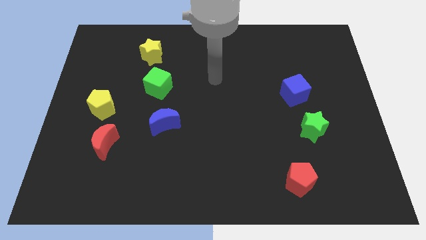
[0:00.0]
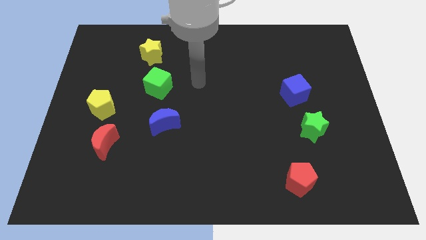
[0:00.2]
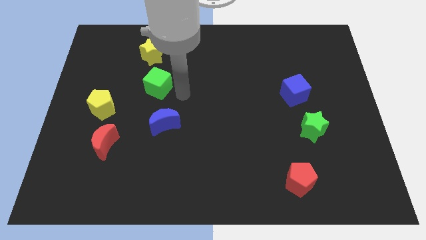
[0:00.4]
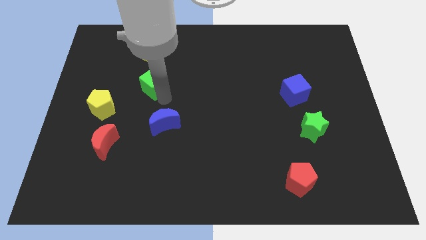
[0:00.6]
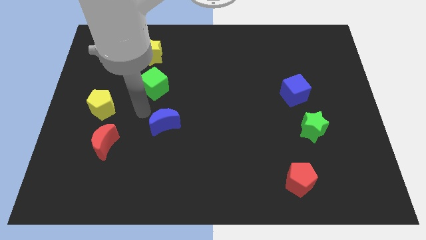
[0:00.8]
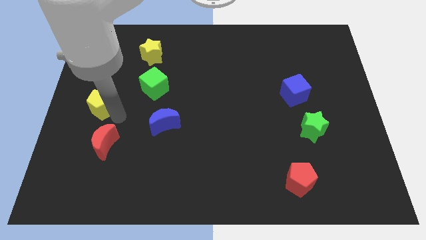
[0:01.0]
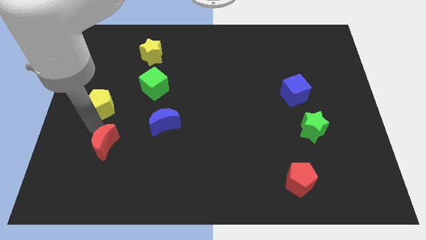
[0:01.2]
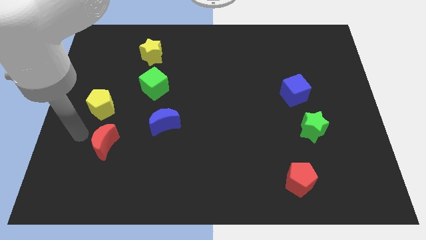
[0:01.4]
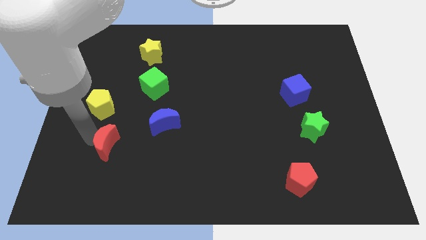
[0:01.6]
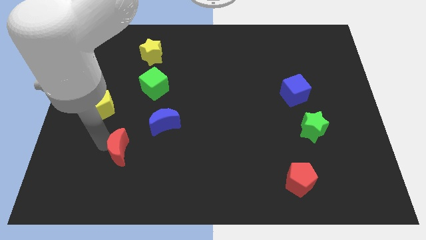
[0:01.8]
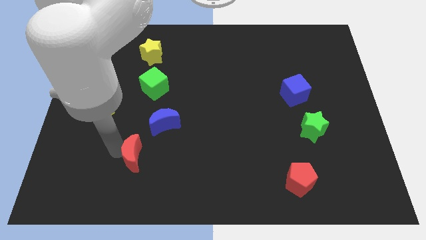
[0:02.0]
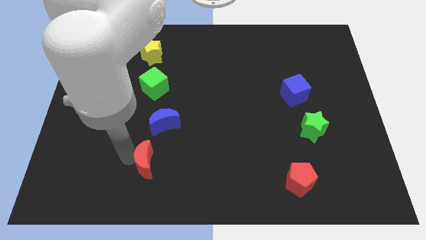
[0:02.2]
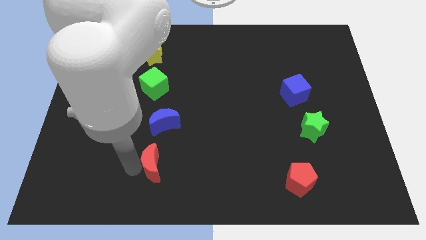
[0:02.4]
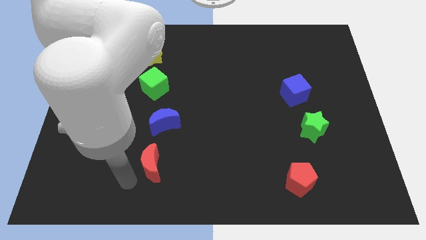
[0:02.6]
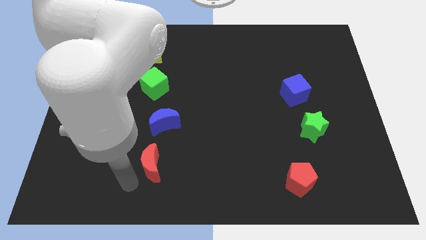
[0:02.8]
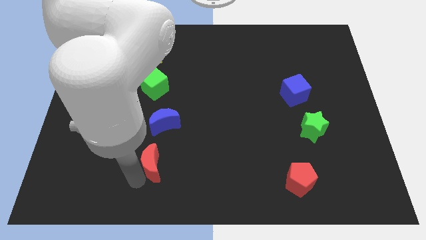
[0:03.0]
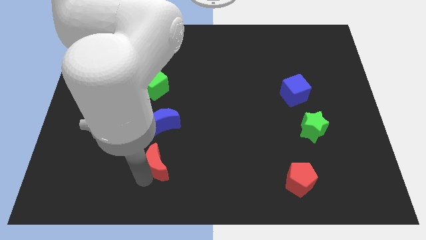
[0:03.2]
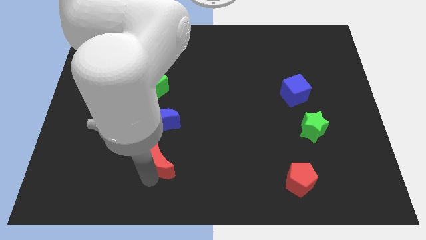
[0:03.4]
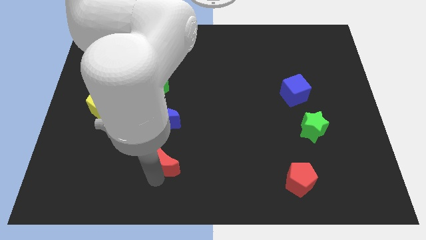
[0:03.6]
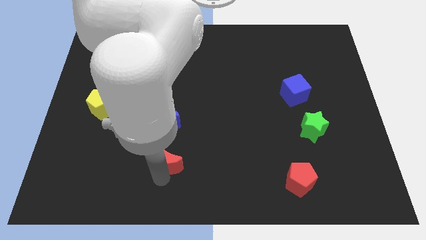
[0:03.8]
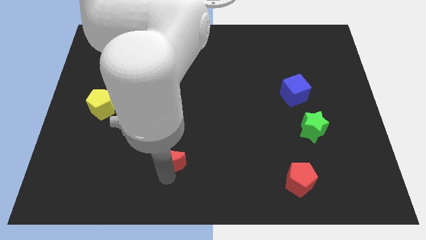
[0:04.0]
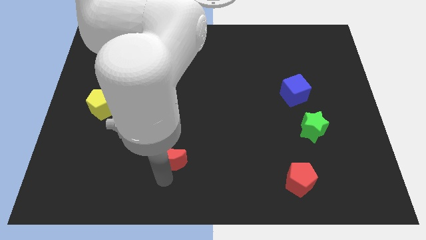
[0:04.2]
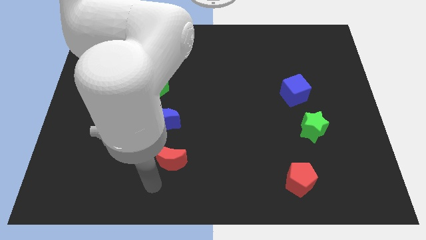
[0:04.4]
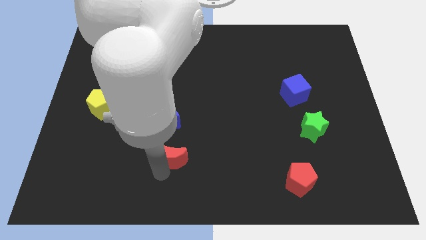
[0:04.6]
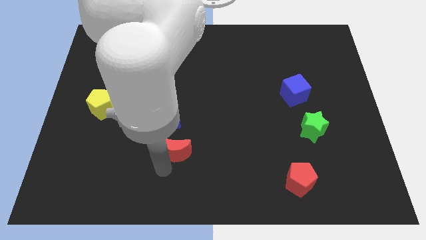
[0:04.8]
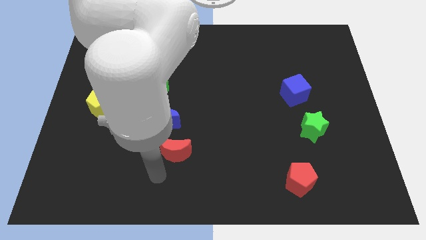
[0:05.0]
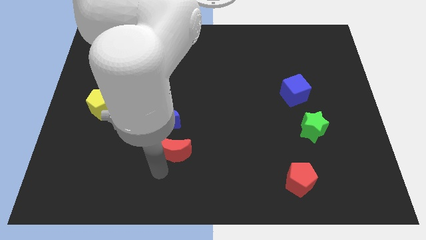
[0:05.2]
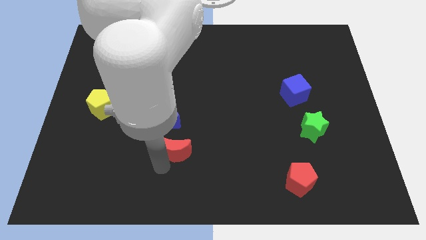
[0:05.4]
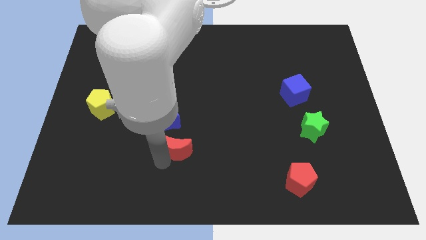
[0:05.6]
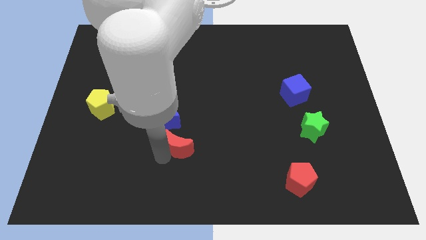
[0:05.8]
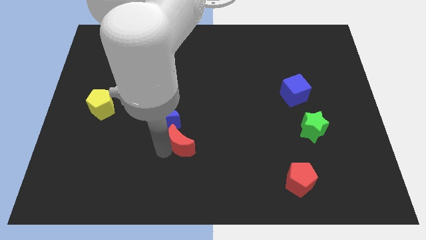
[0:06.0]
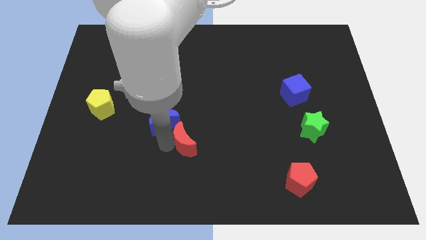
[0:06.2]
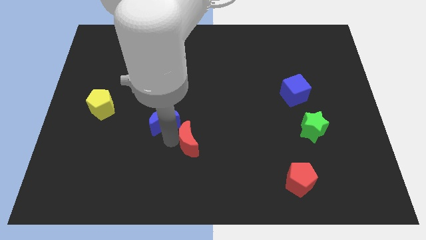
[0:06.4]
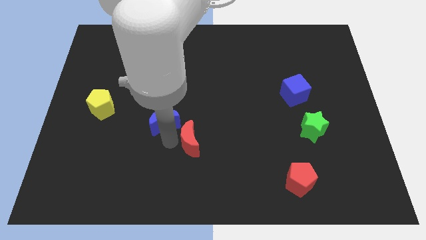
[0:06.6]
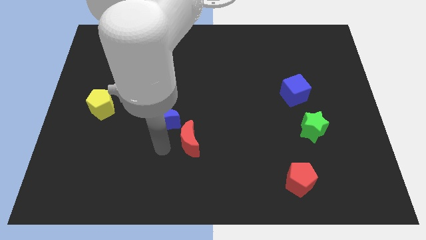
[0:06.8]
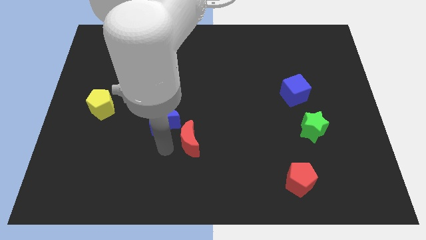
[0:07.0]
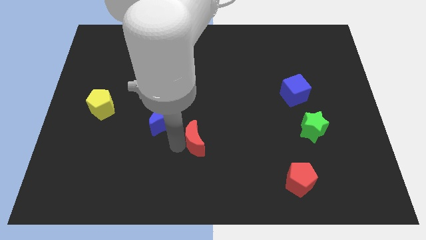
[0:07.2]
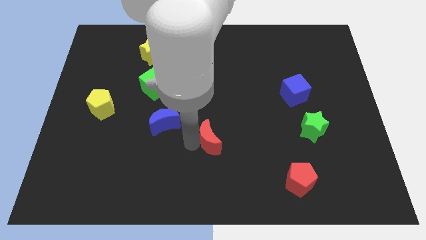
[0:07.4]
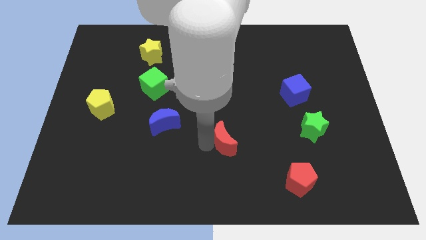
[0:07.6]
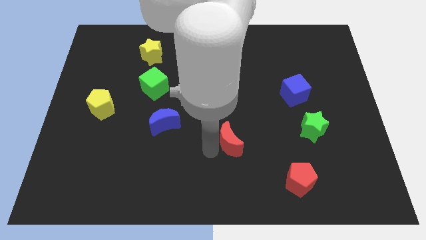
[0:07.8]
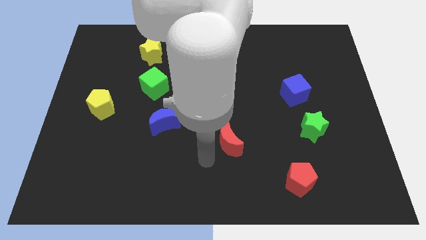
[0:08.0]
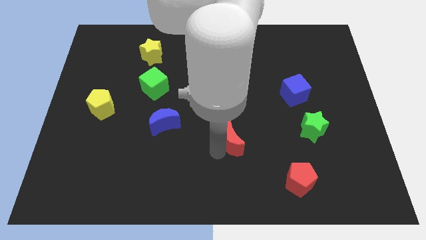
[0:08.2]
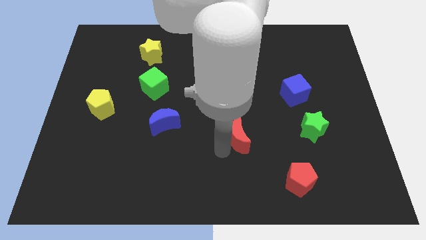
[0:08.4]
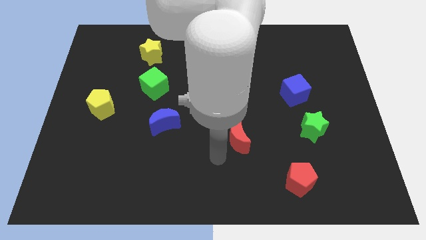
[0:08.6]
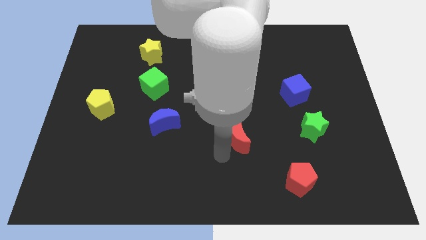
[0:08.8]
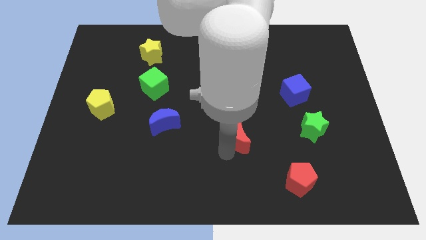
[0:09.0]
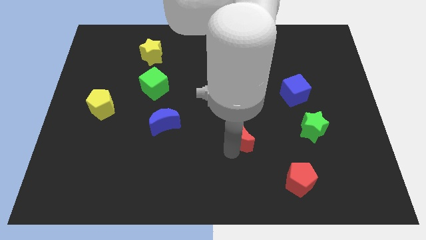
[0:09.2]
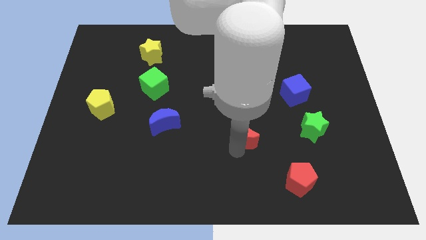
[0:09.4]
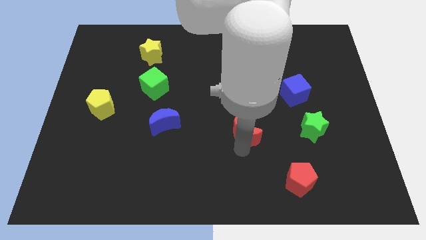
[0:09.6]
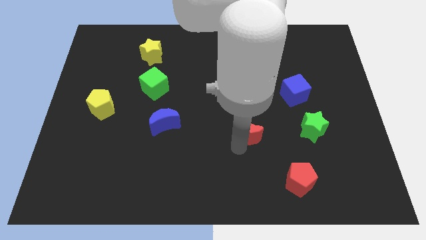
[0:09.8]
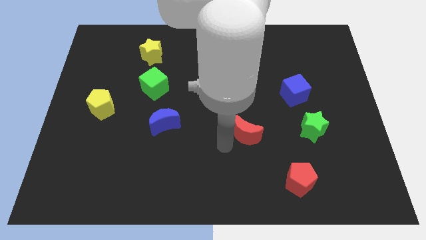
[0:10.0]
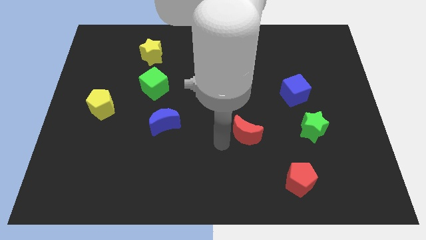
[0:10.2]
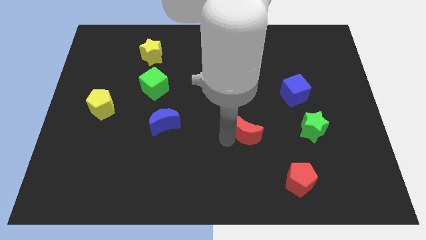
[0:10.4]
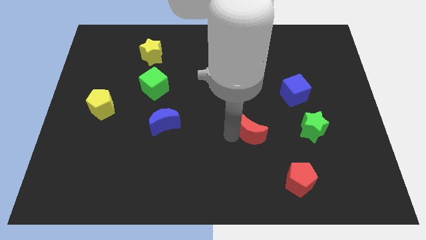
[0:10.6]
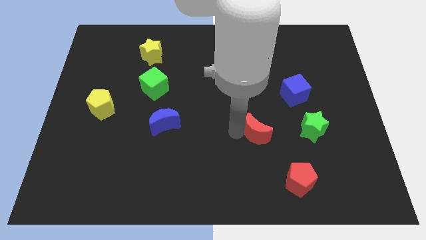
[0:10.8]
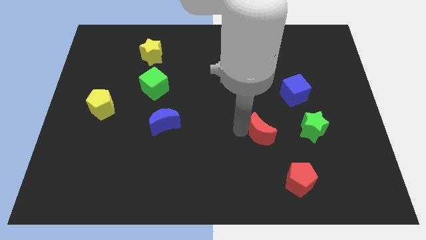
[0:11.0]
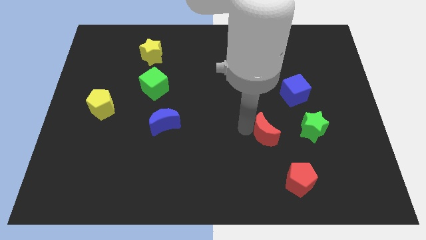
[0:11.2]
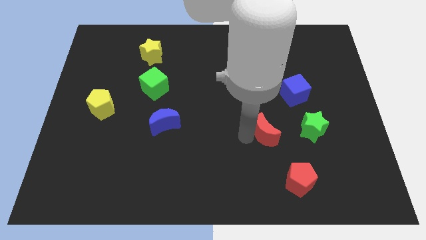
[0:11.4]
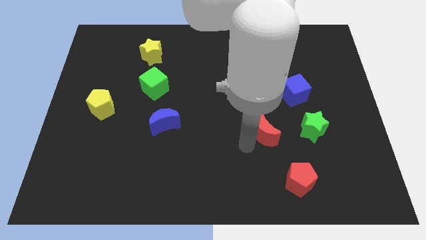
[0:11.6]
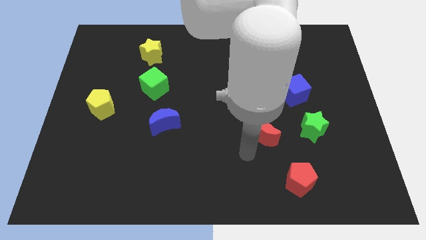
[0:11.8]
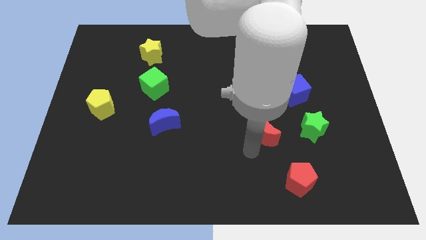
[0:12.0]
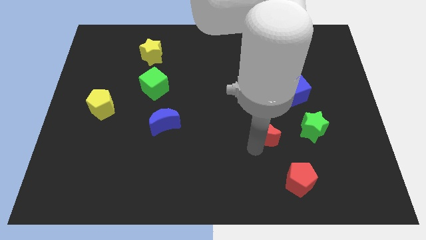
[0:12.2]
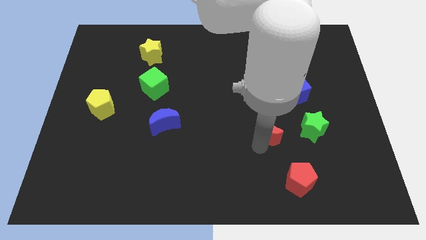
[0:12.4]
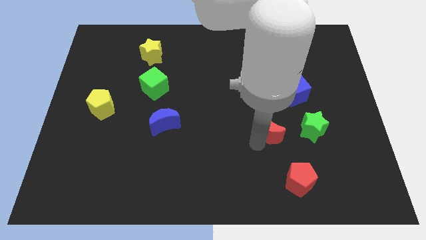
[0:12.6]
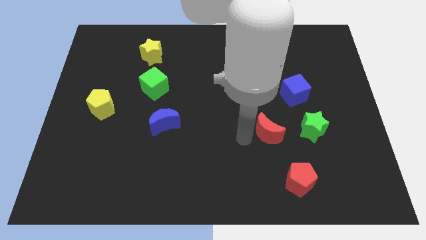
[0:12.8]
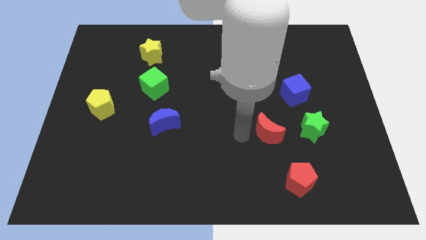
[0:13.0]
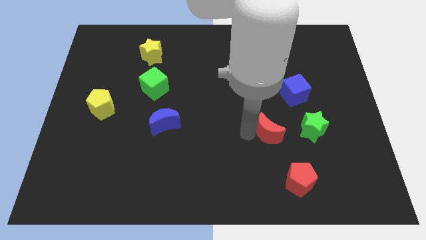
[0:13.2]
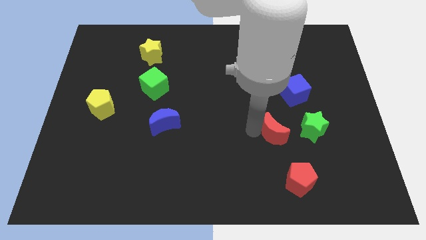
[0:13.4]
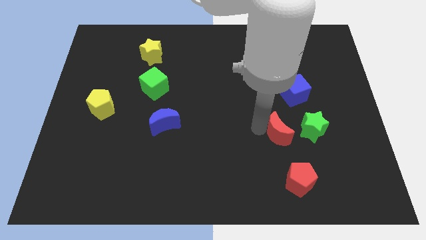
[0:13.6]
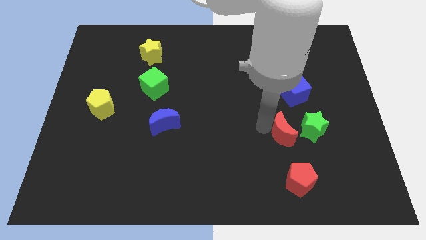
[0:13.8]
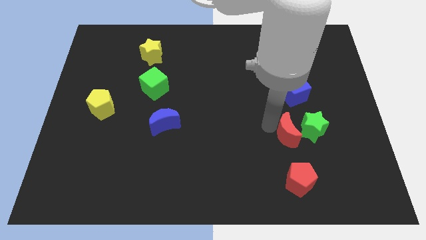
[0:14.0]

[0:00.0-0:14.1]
push the red moon towards the green star
